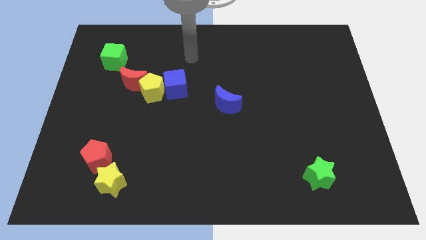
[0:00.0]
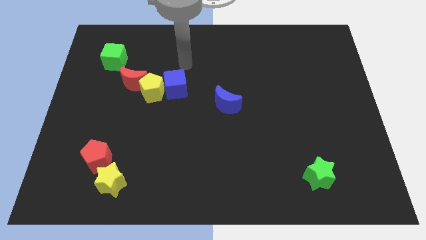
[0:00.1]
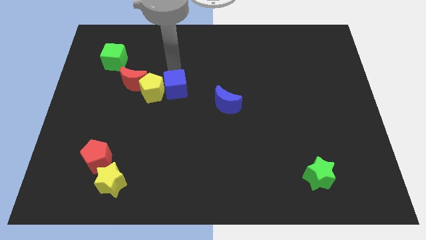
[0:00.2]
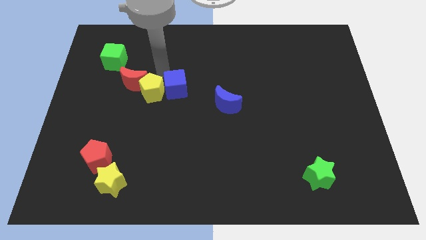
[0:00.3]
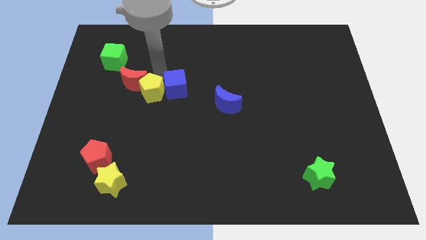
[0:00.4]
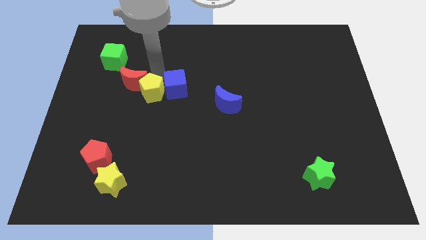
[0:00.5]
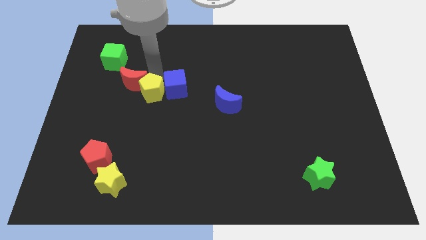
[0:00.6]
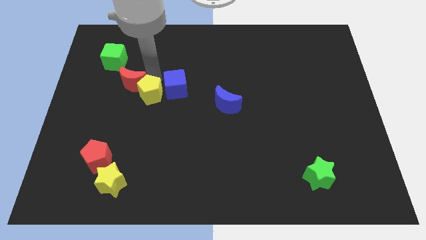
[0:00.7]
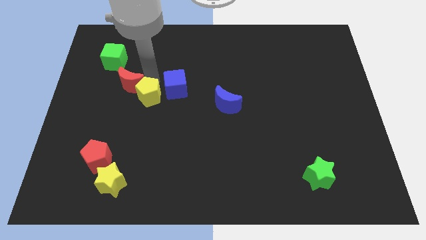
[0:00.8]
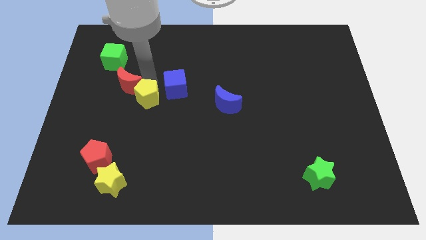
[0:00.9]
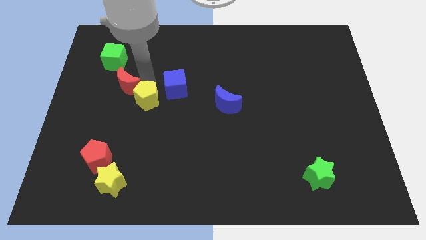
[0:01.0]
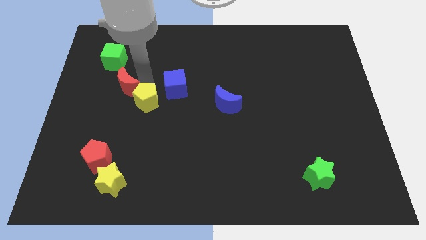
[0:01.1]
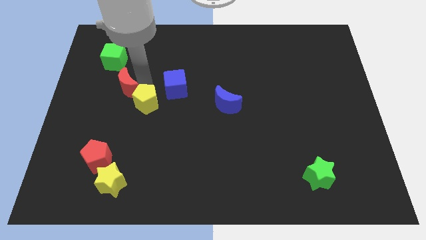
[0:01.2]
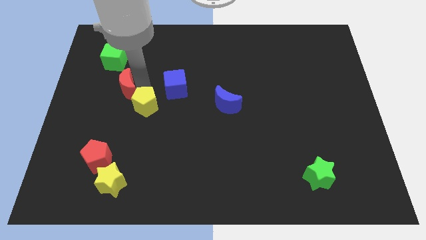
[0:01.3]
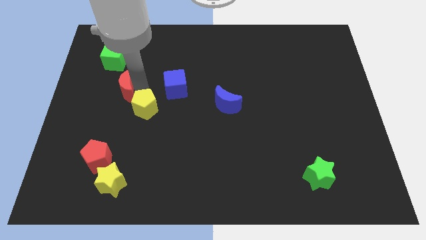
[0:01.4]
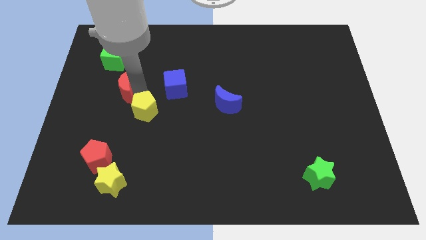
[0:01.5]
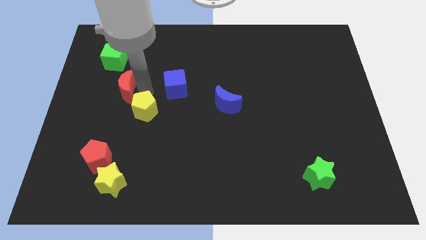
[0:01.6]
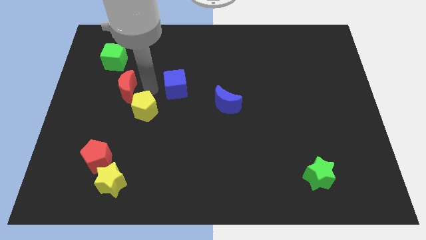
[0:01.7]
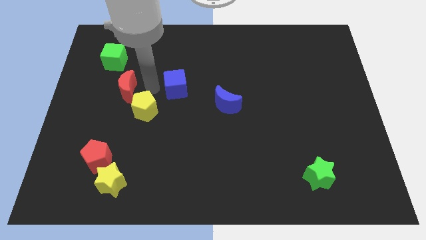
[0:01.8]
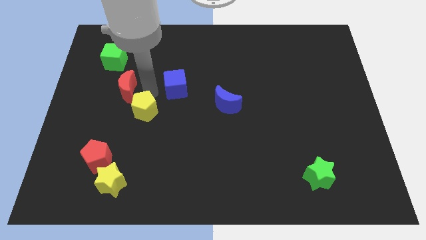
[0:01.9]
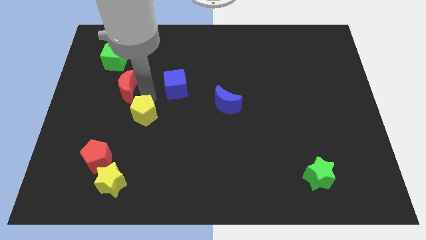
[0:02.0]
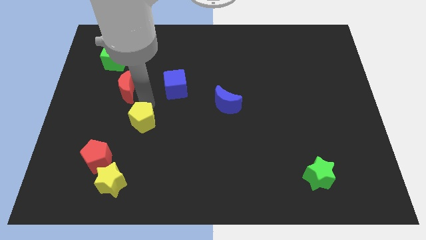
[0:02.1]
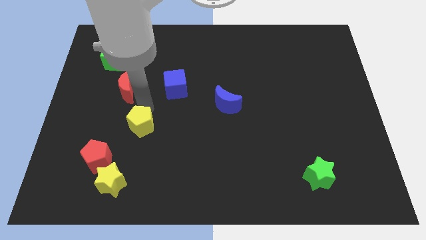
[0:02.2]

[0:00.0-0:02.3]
separate the yellow pentagon from the red moon and blue cube

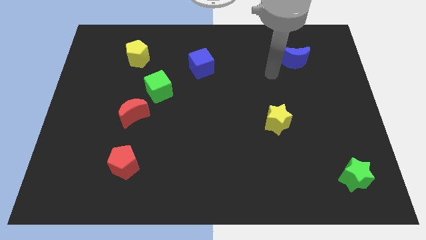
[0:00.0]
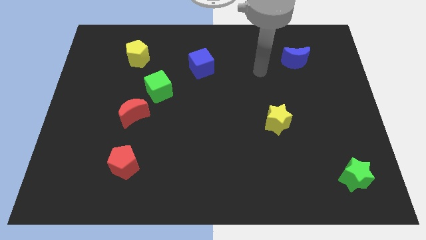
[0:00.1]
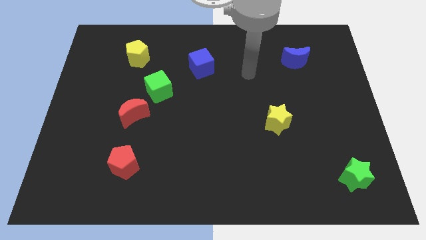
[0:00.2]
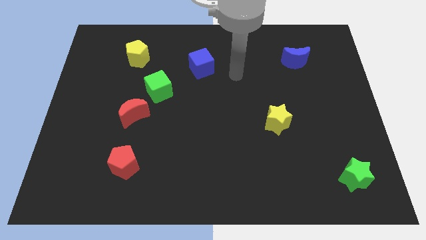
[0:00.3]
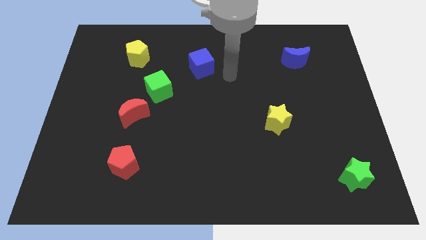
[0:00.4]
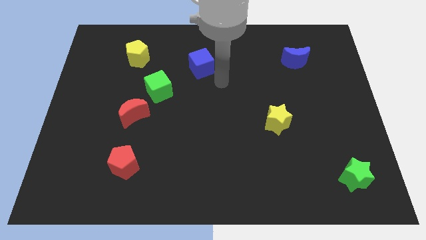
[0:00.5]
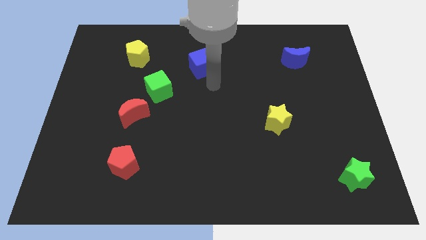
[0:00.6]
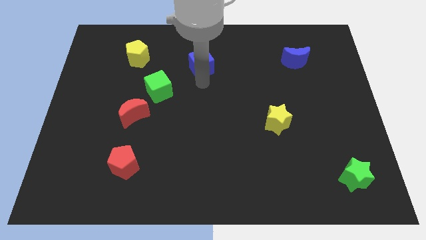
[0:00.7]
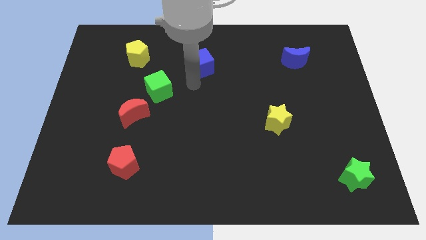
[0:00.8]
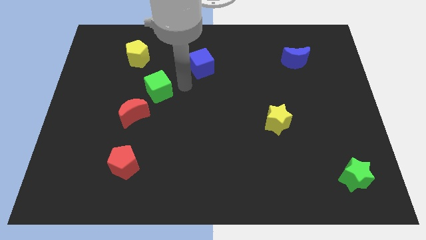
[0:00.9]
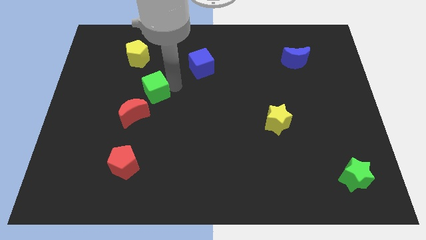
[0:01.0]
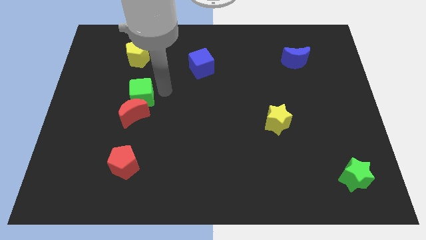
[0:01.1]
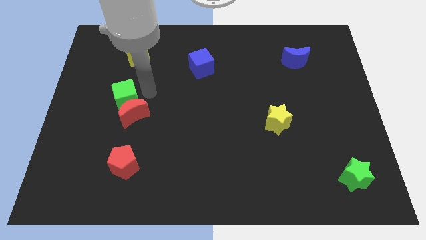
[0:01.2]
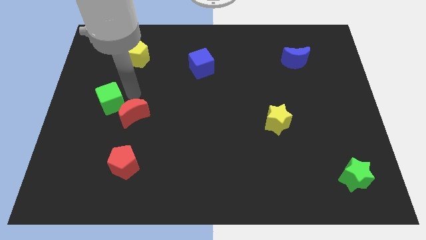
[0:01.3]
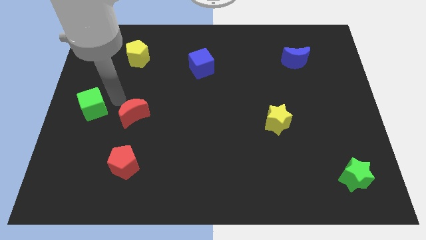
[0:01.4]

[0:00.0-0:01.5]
move the red moon away from the green cube

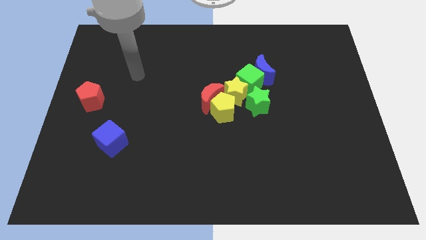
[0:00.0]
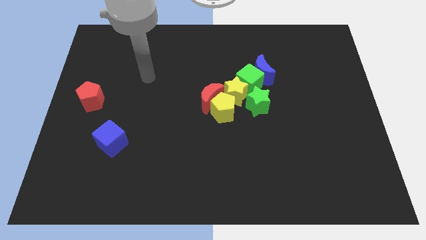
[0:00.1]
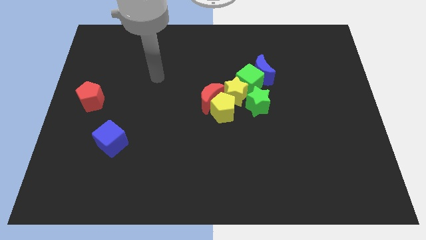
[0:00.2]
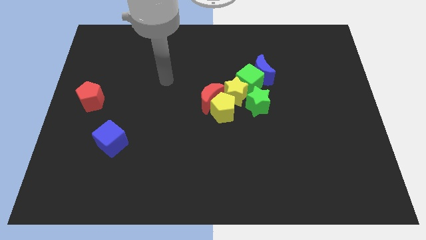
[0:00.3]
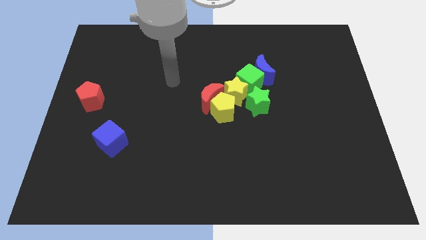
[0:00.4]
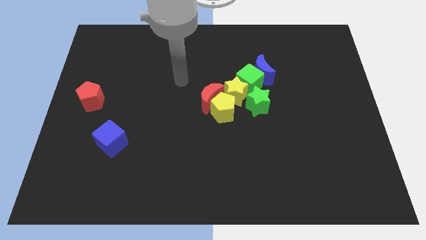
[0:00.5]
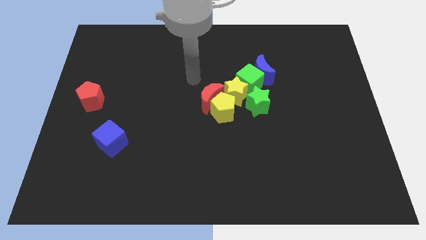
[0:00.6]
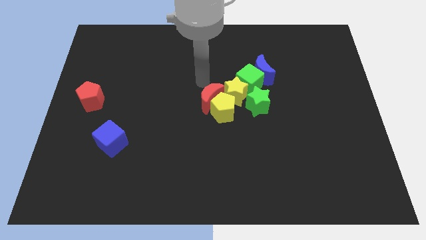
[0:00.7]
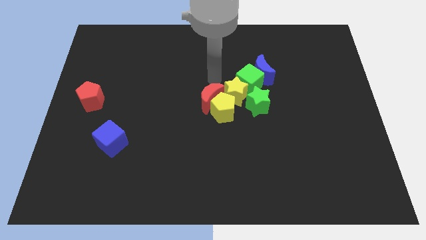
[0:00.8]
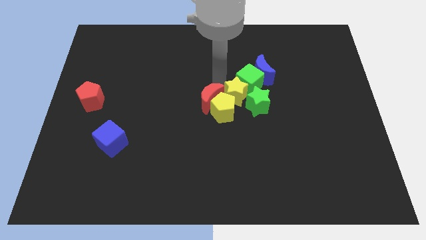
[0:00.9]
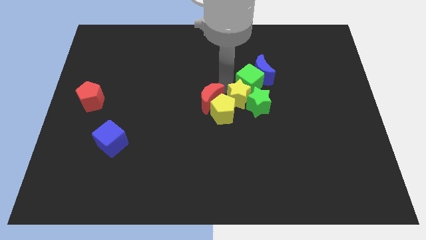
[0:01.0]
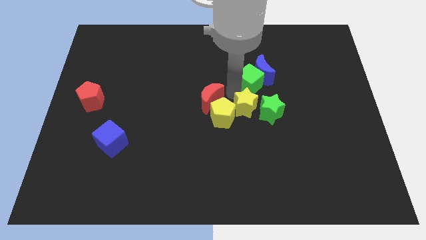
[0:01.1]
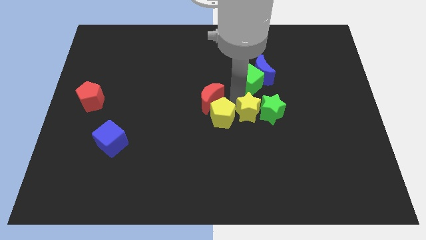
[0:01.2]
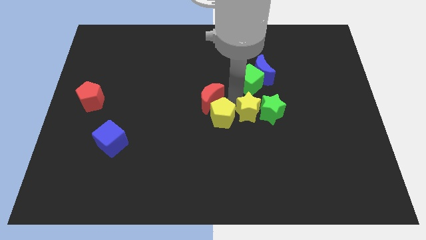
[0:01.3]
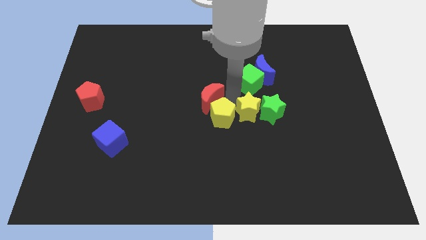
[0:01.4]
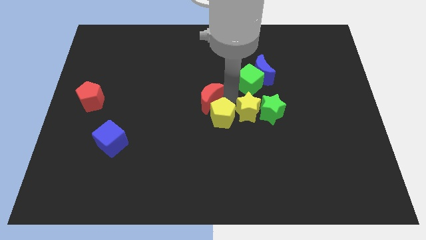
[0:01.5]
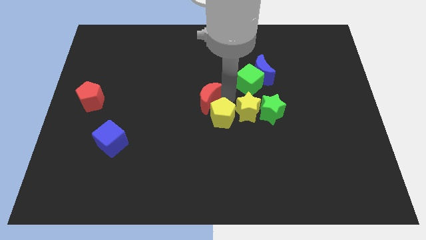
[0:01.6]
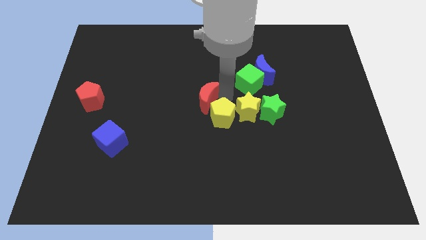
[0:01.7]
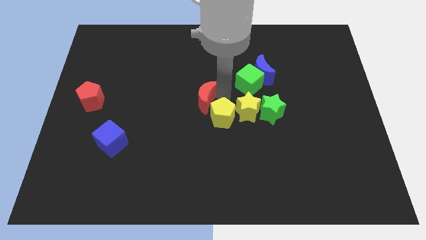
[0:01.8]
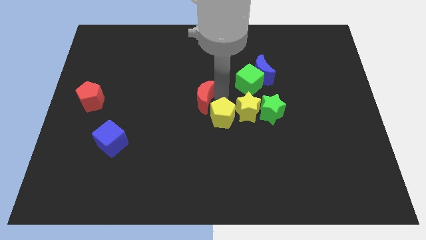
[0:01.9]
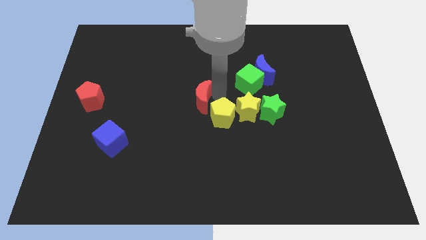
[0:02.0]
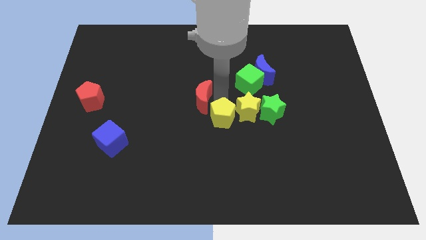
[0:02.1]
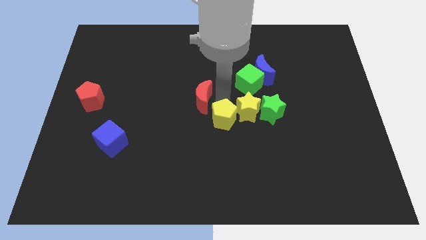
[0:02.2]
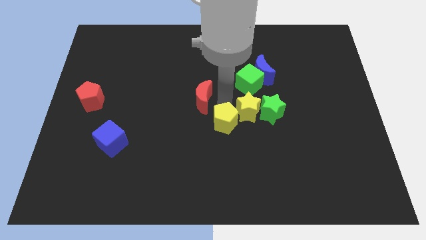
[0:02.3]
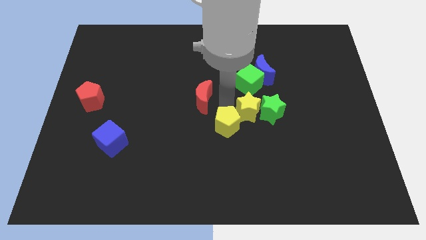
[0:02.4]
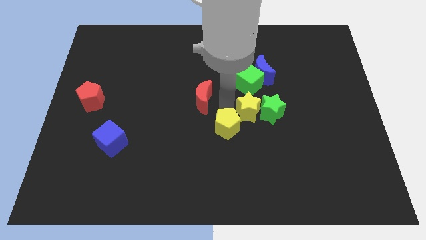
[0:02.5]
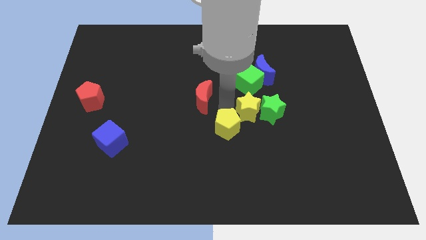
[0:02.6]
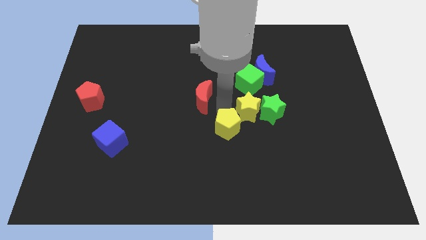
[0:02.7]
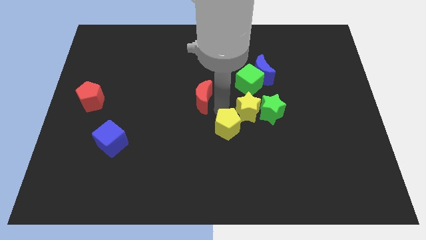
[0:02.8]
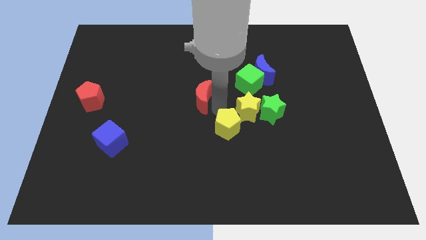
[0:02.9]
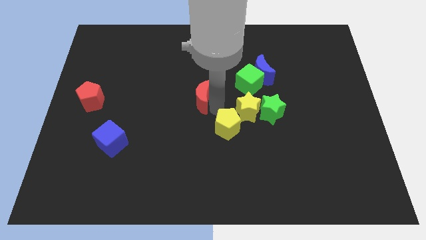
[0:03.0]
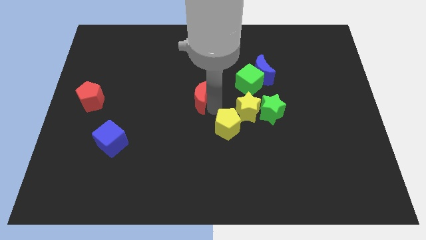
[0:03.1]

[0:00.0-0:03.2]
pull the red moon apart from the yellow pentagon and yellow star

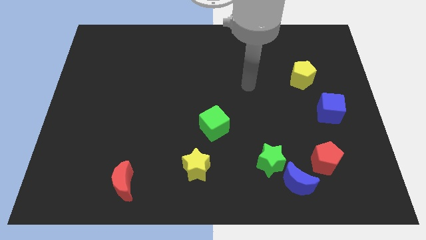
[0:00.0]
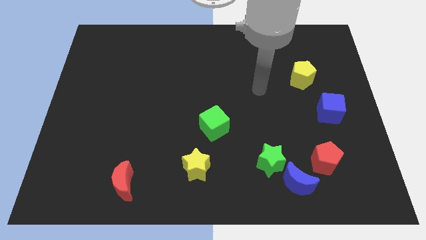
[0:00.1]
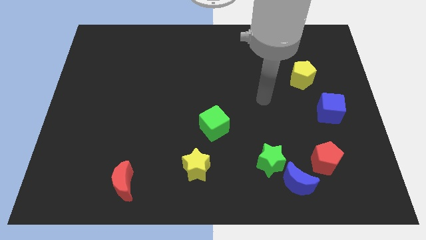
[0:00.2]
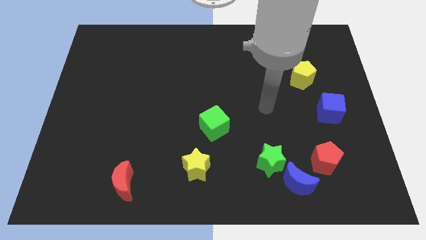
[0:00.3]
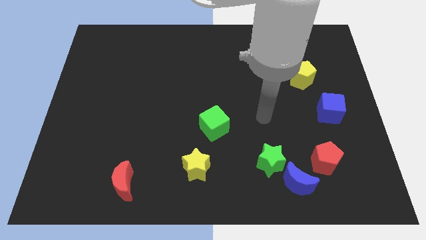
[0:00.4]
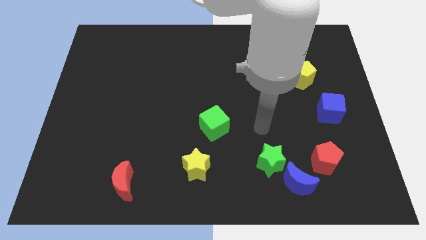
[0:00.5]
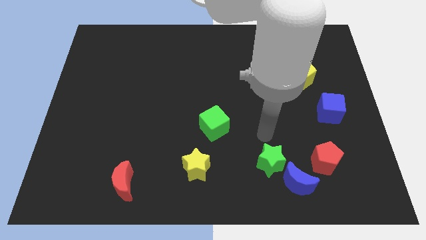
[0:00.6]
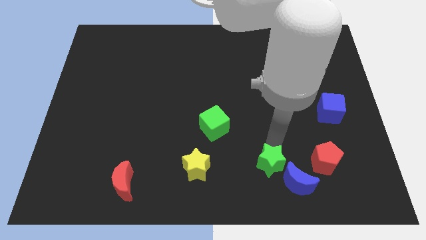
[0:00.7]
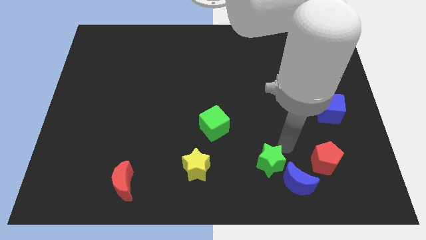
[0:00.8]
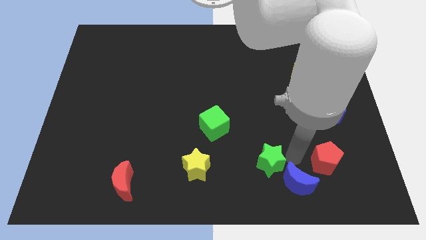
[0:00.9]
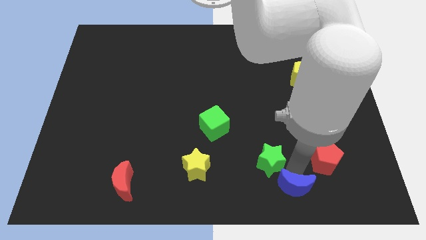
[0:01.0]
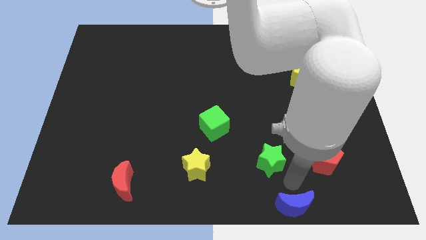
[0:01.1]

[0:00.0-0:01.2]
move the green star away from the blue moon

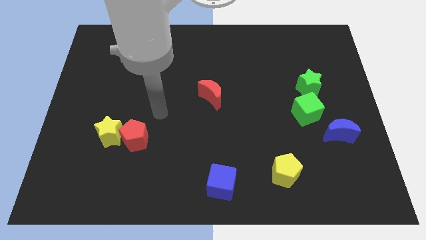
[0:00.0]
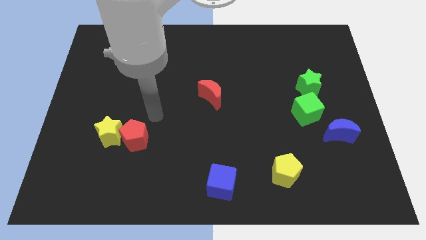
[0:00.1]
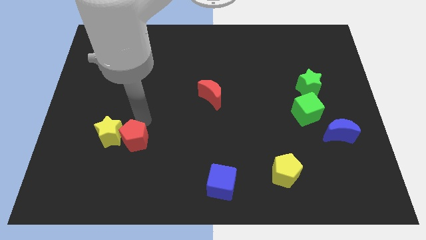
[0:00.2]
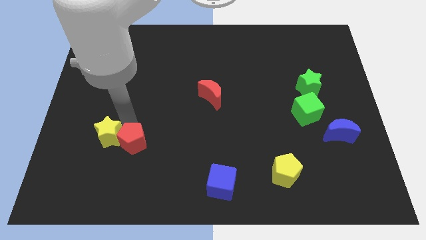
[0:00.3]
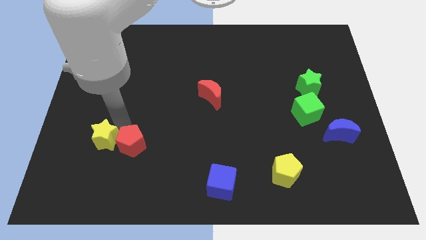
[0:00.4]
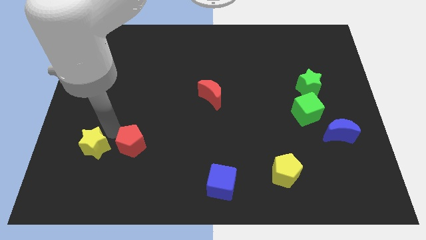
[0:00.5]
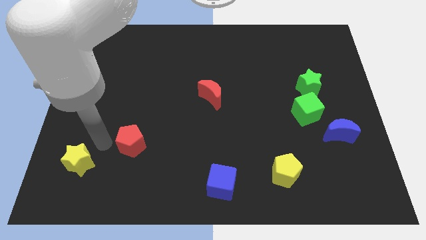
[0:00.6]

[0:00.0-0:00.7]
pull the red pentagon apart from the yellow star

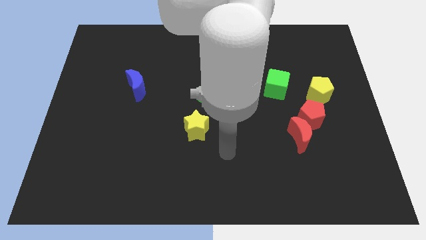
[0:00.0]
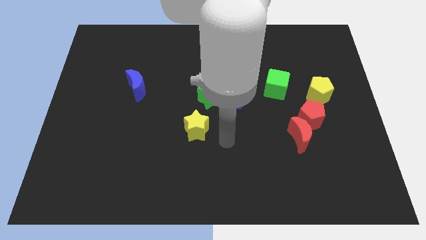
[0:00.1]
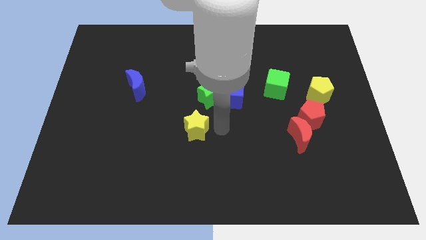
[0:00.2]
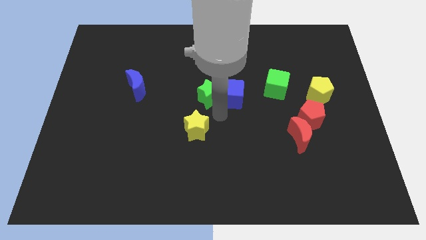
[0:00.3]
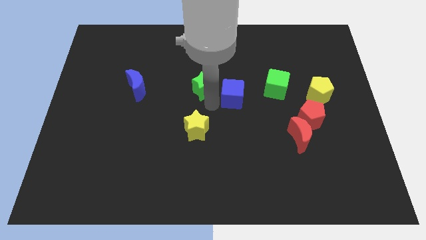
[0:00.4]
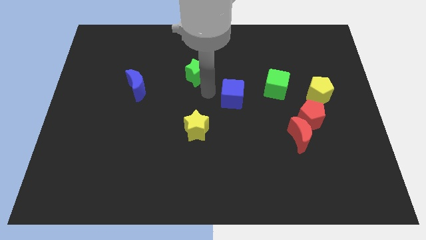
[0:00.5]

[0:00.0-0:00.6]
pull the blue cube apart from the green star
